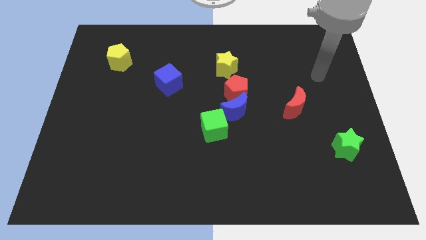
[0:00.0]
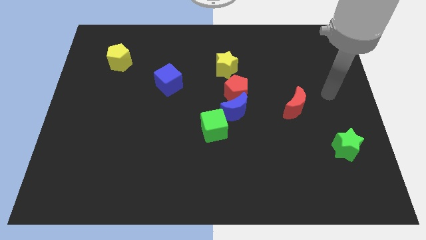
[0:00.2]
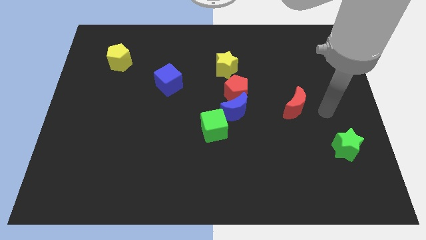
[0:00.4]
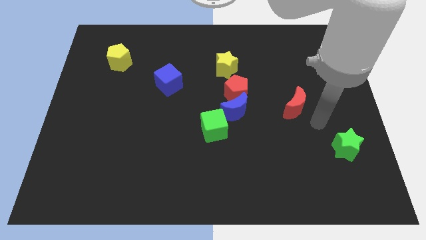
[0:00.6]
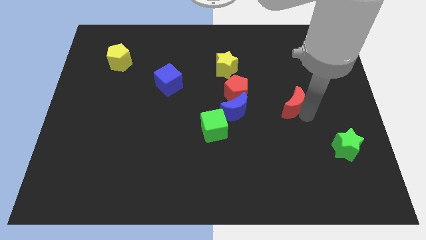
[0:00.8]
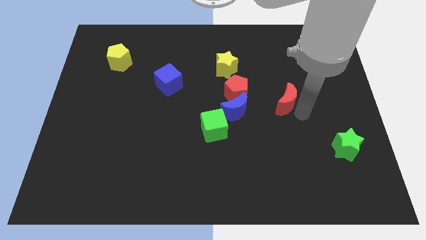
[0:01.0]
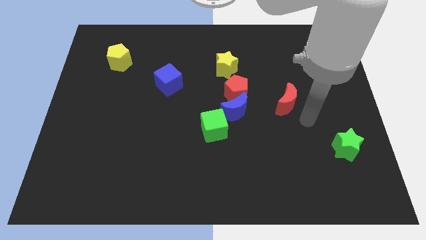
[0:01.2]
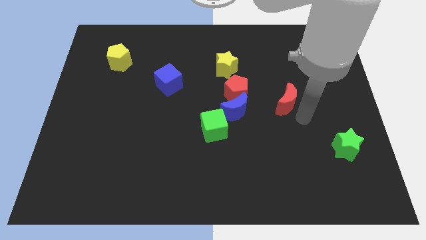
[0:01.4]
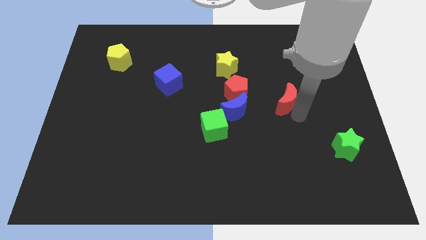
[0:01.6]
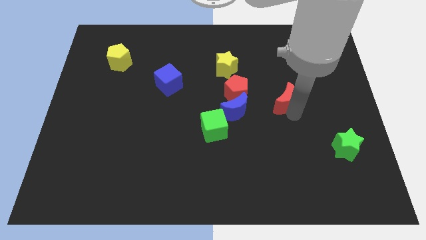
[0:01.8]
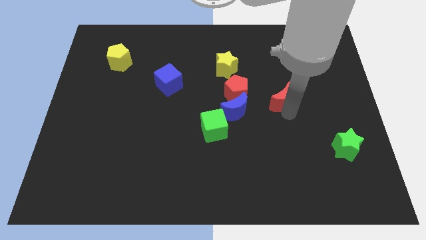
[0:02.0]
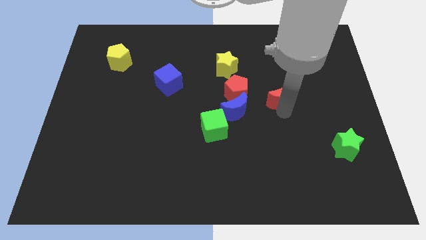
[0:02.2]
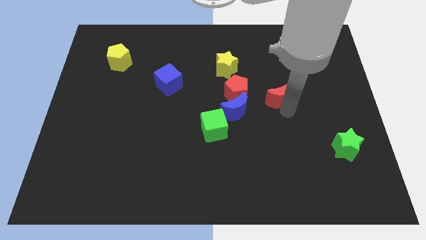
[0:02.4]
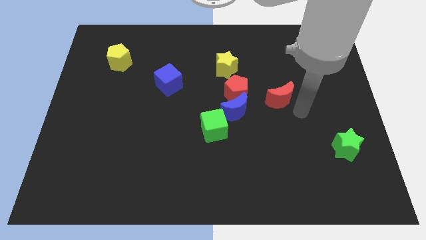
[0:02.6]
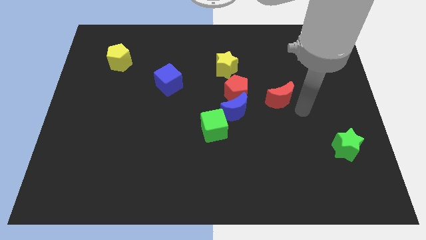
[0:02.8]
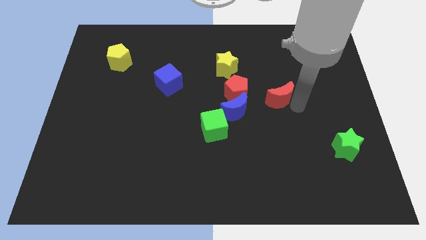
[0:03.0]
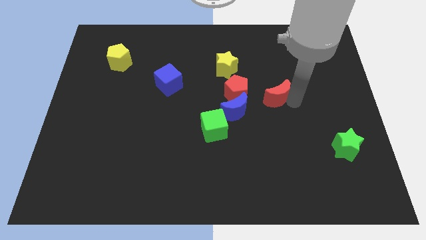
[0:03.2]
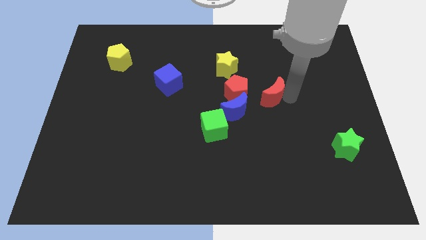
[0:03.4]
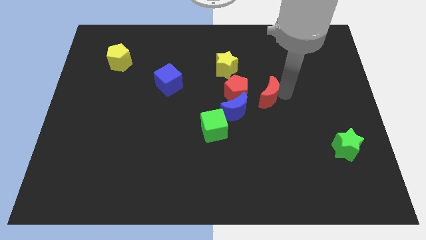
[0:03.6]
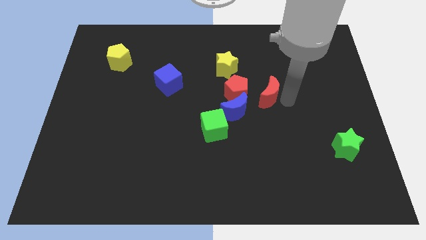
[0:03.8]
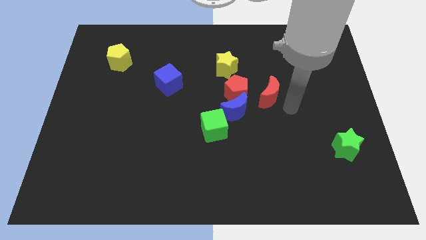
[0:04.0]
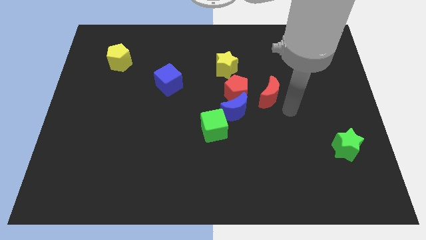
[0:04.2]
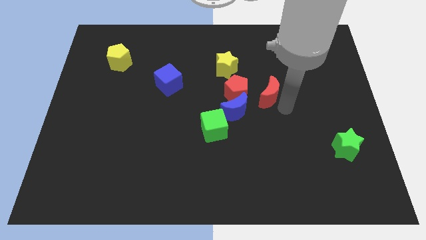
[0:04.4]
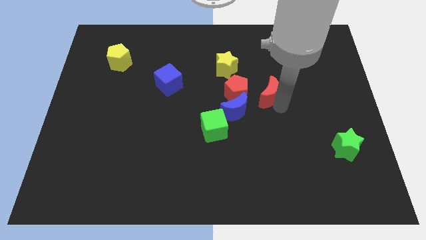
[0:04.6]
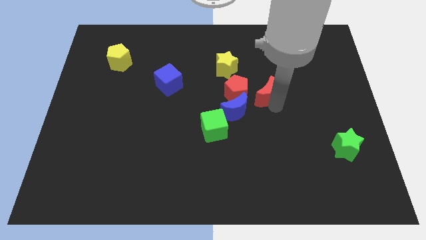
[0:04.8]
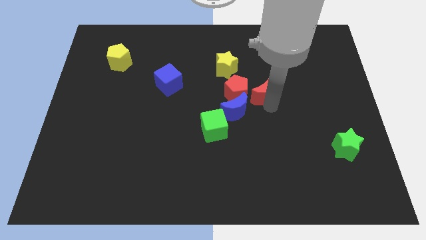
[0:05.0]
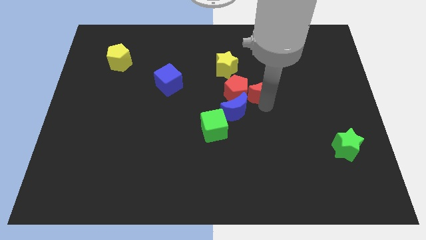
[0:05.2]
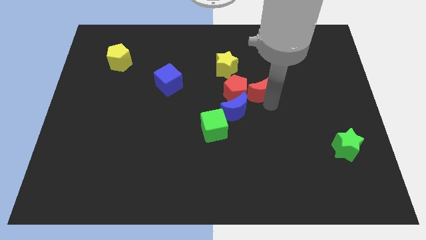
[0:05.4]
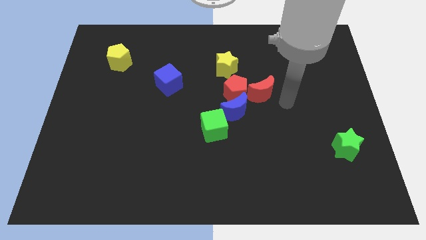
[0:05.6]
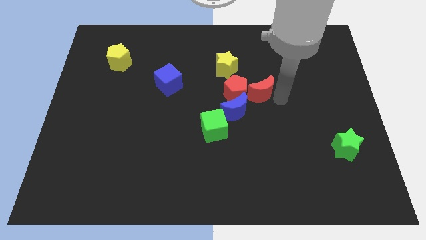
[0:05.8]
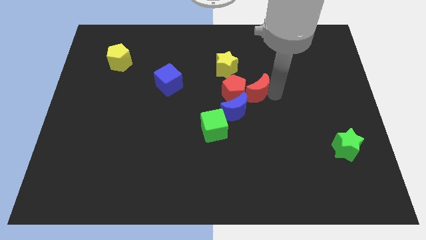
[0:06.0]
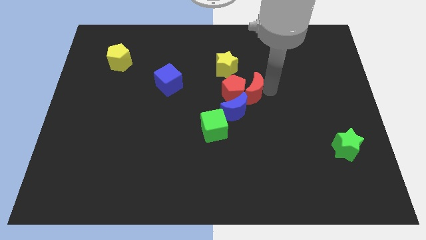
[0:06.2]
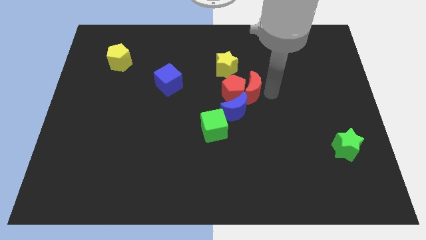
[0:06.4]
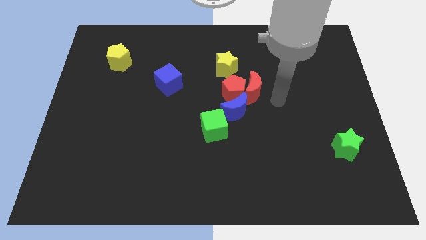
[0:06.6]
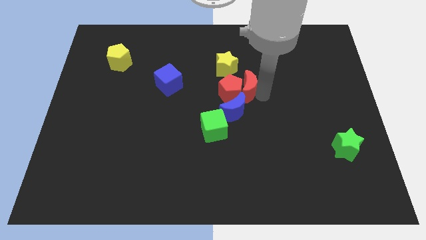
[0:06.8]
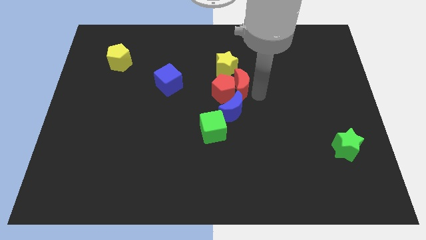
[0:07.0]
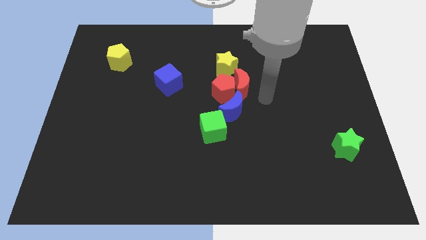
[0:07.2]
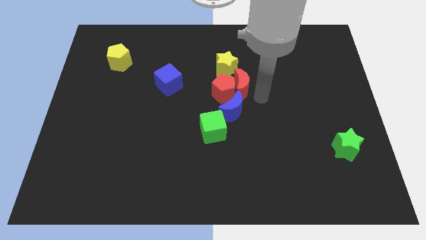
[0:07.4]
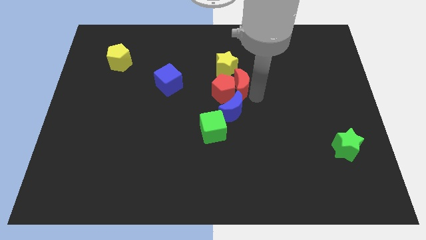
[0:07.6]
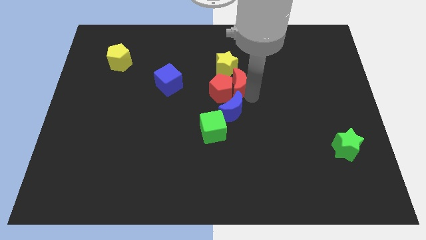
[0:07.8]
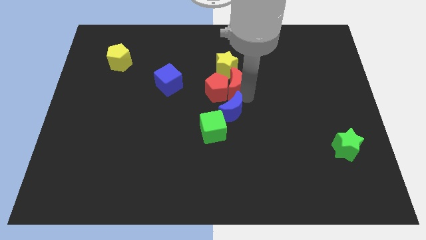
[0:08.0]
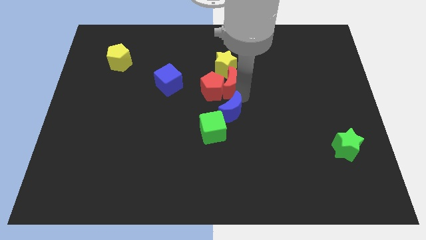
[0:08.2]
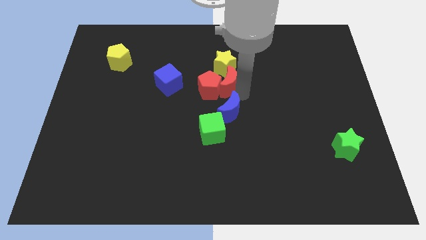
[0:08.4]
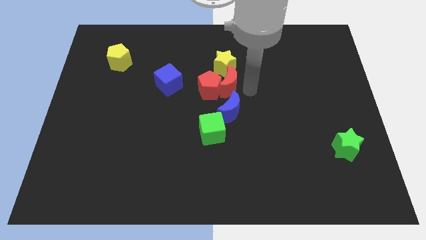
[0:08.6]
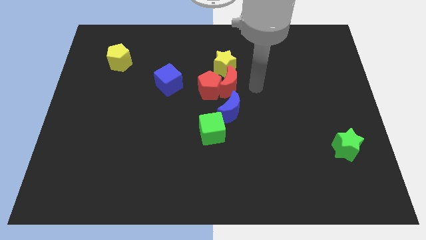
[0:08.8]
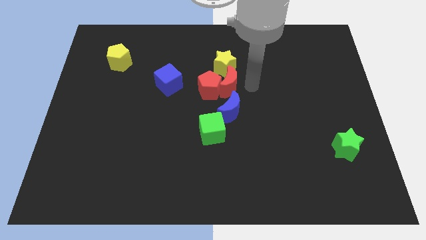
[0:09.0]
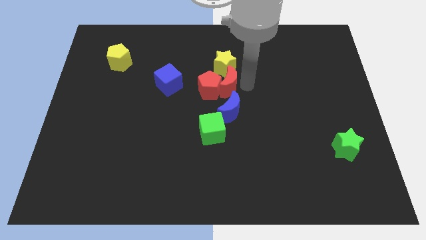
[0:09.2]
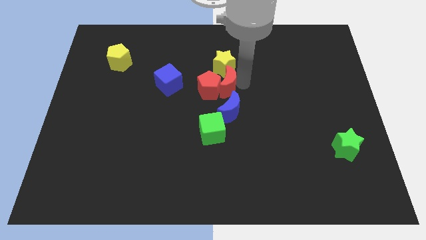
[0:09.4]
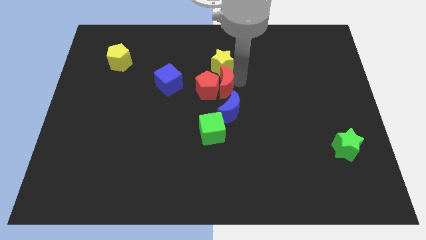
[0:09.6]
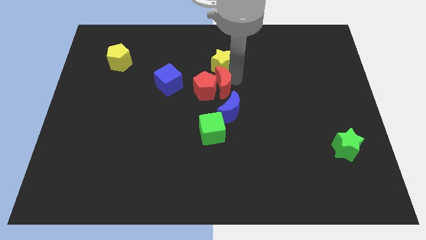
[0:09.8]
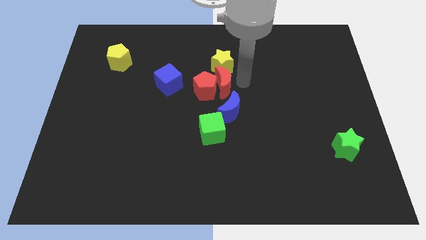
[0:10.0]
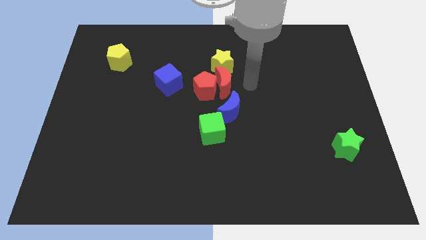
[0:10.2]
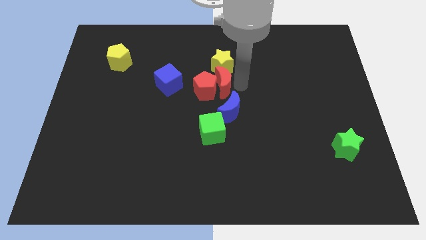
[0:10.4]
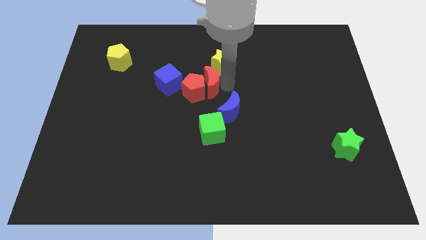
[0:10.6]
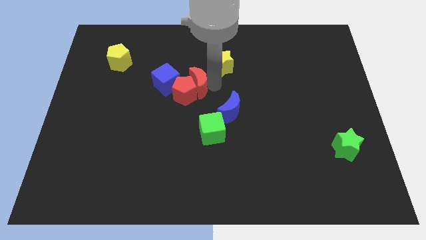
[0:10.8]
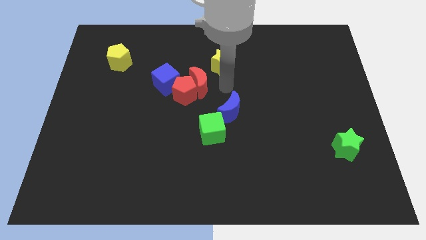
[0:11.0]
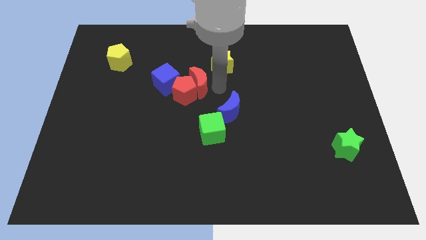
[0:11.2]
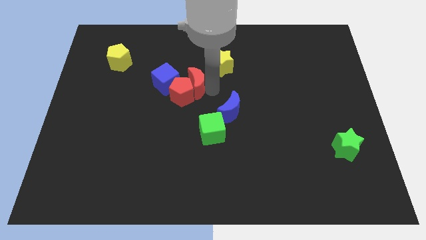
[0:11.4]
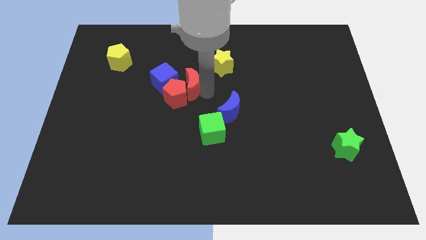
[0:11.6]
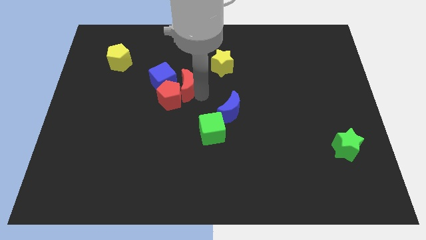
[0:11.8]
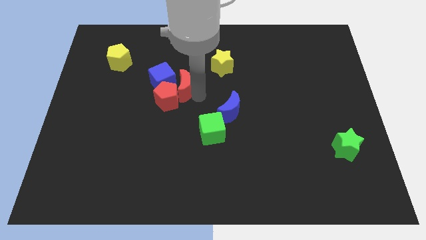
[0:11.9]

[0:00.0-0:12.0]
put the red moon close to the blue cube
